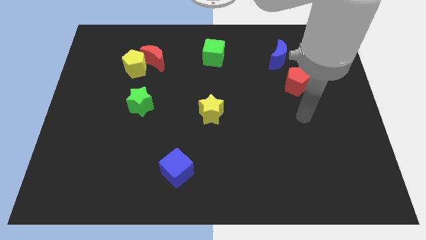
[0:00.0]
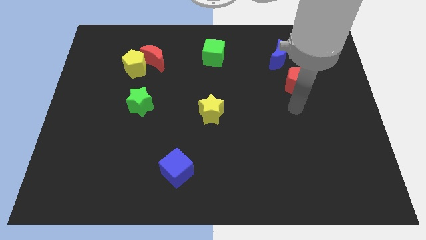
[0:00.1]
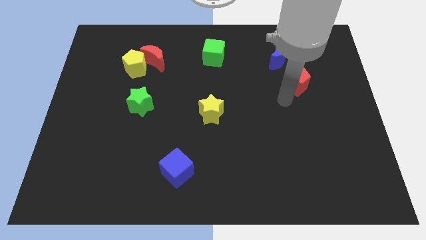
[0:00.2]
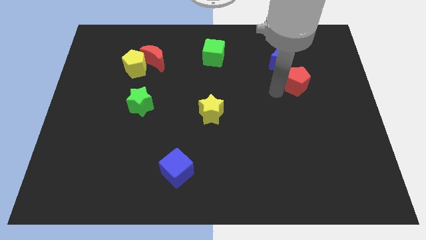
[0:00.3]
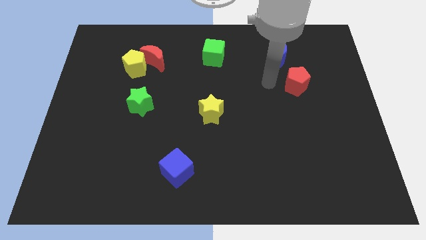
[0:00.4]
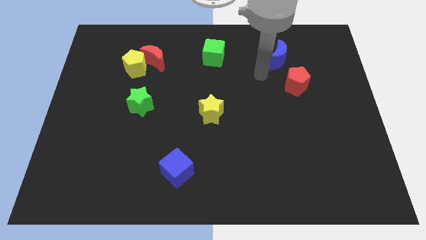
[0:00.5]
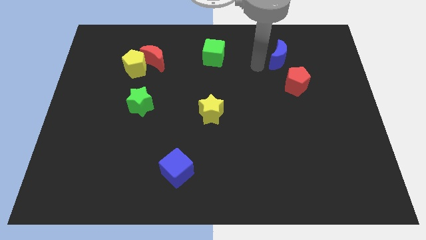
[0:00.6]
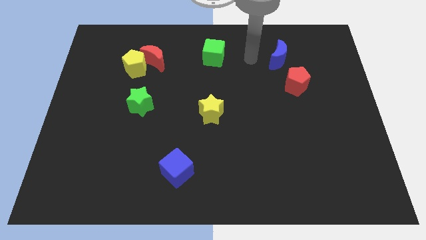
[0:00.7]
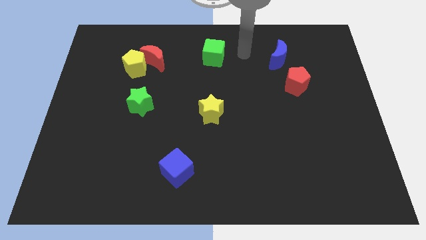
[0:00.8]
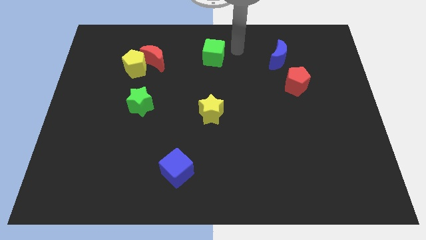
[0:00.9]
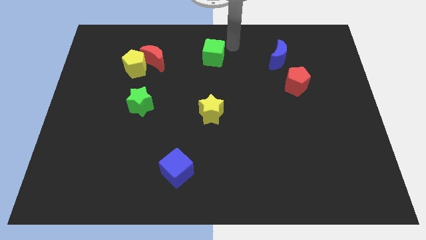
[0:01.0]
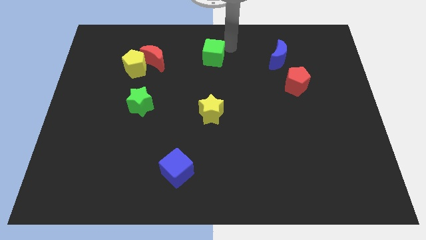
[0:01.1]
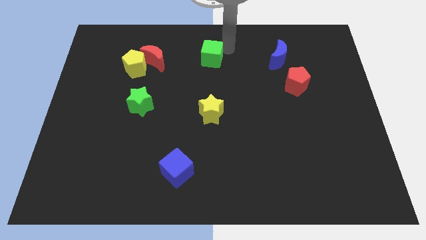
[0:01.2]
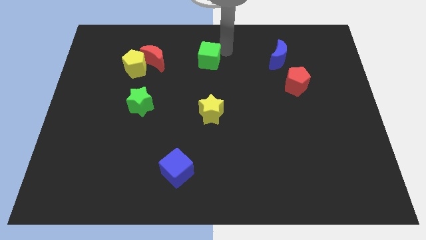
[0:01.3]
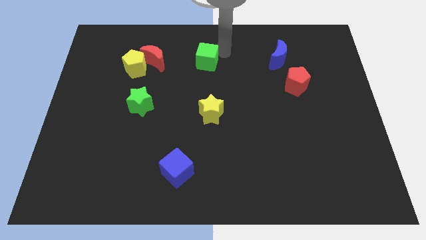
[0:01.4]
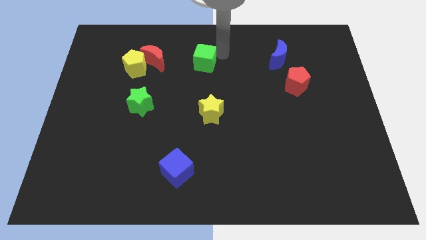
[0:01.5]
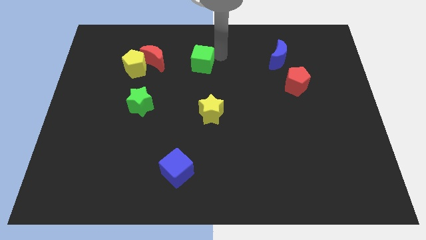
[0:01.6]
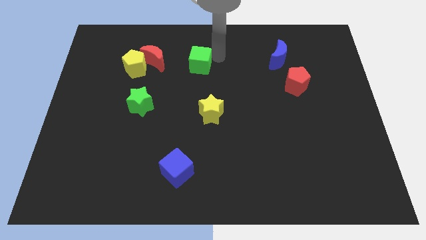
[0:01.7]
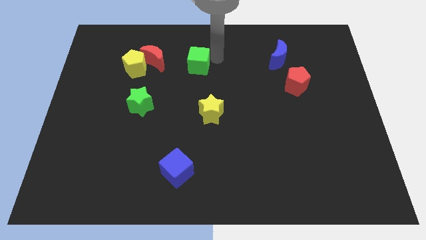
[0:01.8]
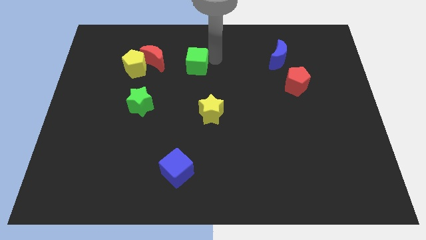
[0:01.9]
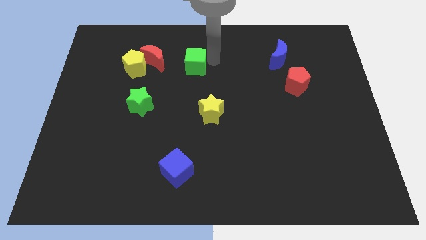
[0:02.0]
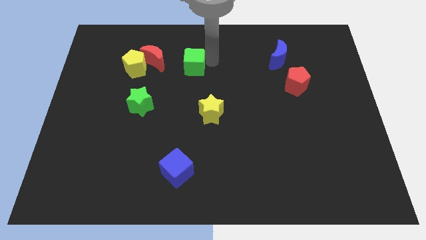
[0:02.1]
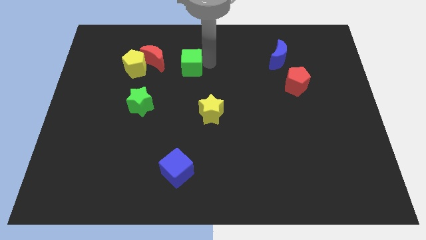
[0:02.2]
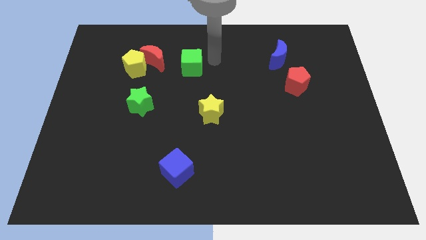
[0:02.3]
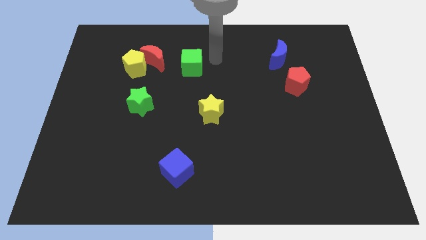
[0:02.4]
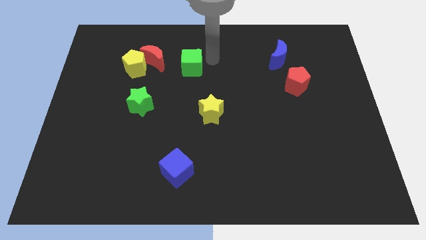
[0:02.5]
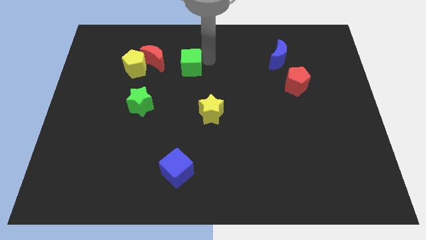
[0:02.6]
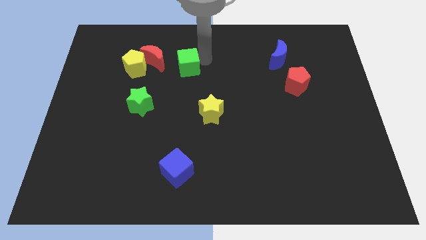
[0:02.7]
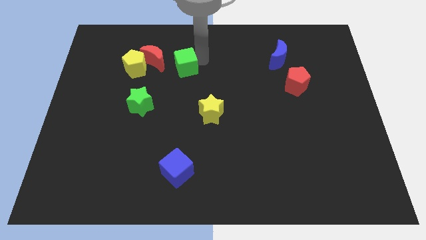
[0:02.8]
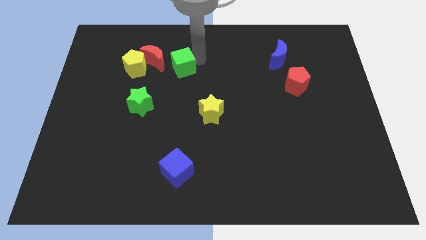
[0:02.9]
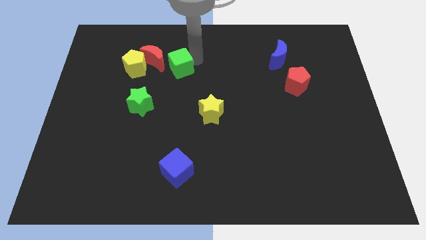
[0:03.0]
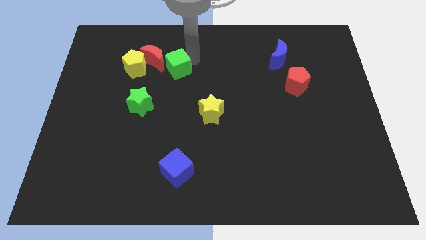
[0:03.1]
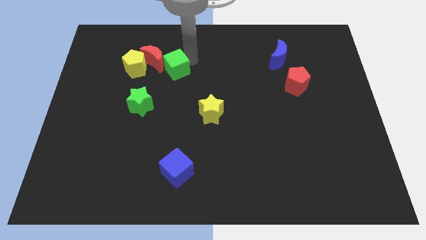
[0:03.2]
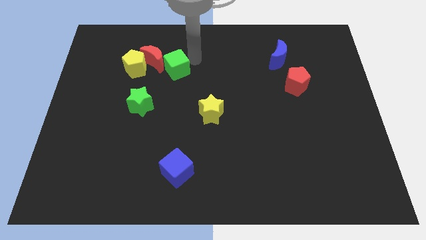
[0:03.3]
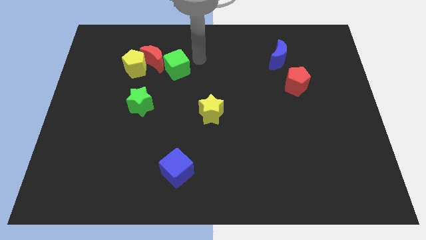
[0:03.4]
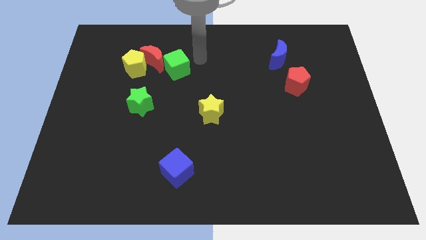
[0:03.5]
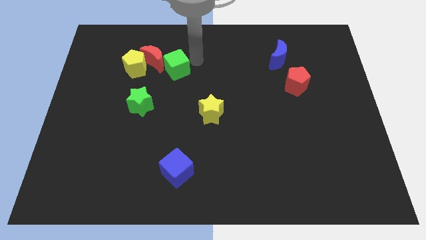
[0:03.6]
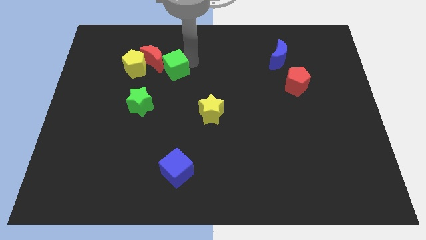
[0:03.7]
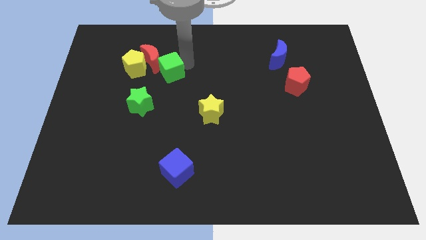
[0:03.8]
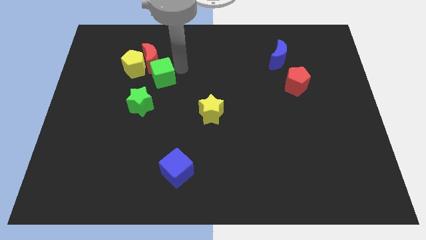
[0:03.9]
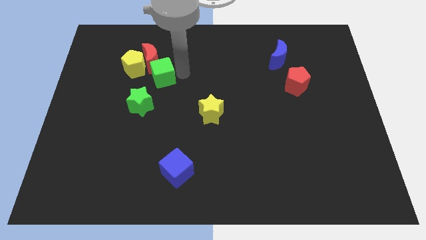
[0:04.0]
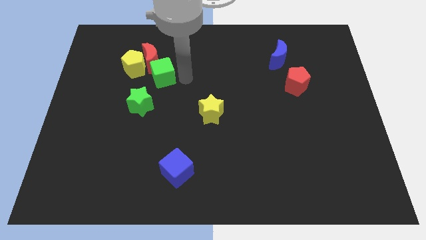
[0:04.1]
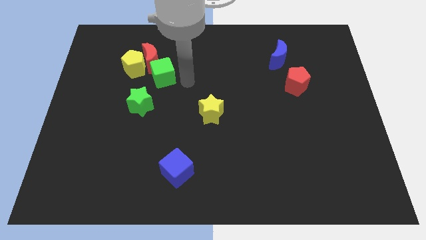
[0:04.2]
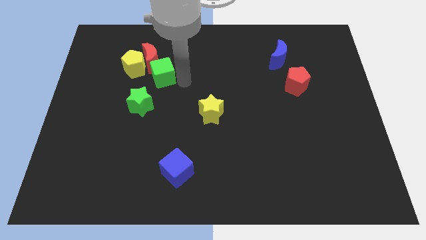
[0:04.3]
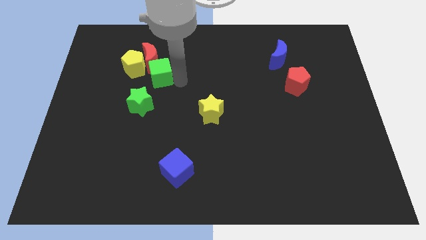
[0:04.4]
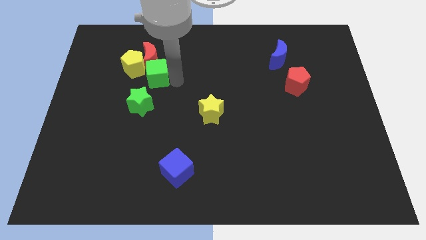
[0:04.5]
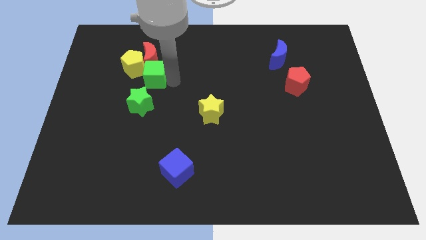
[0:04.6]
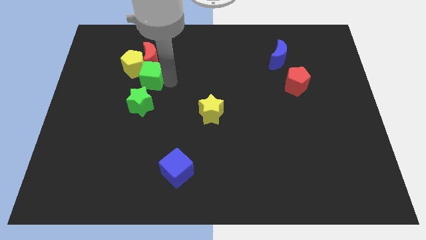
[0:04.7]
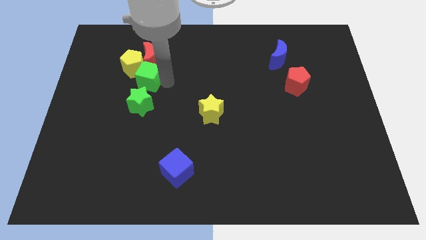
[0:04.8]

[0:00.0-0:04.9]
put the green cube towards the yellow pentagon

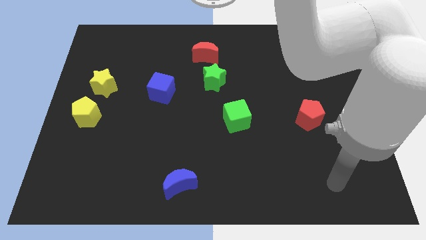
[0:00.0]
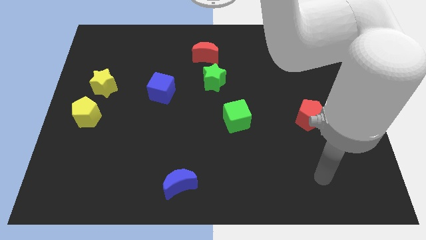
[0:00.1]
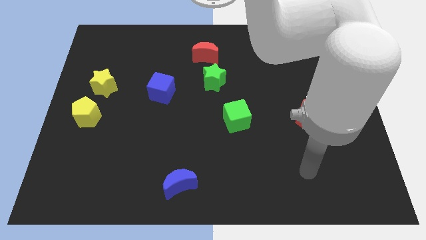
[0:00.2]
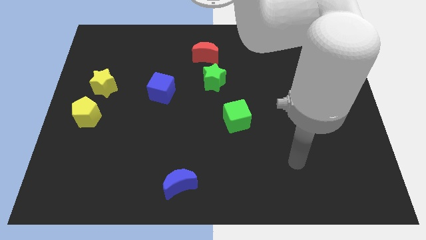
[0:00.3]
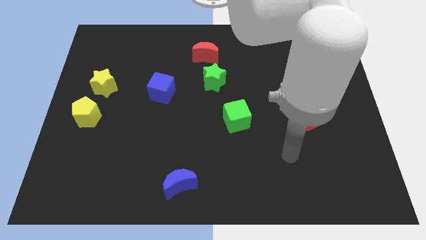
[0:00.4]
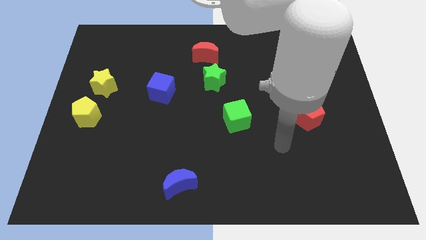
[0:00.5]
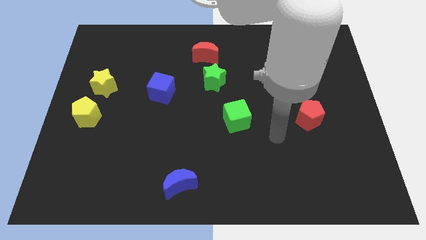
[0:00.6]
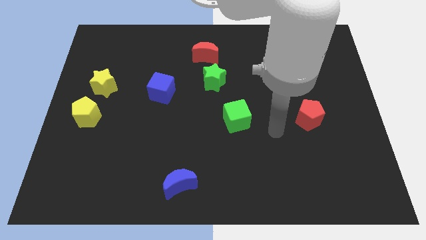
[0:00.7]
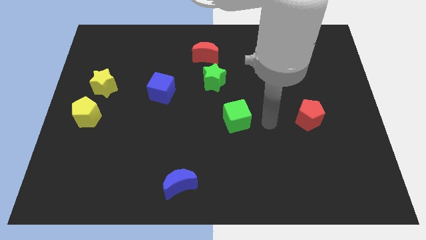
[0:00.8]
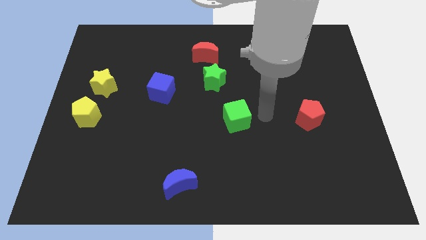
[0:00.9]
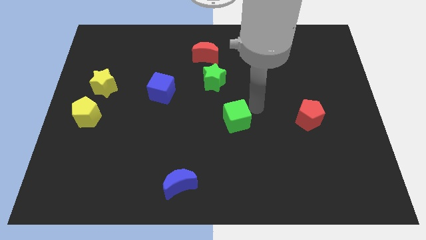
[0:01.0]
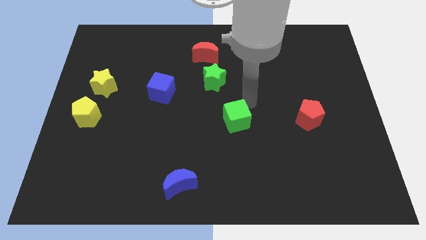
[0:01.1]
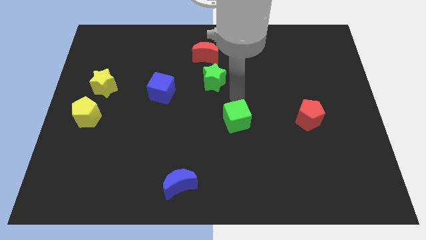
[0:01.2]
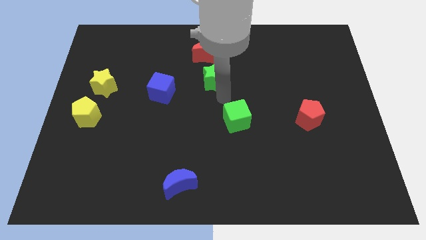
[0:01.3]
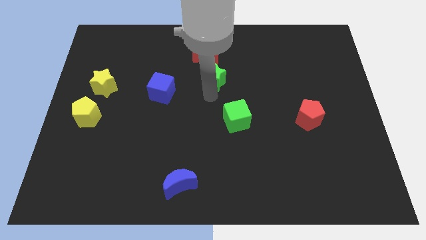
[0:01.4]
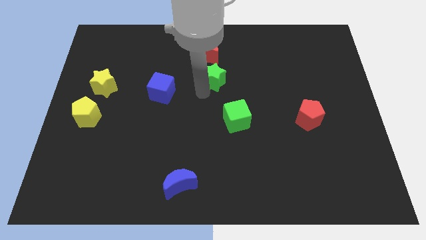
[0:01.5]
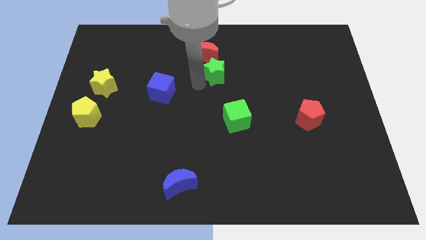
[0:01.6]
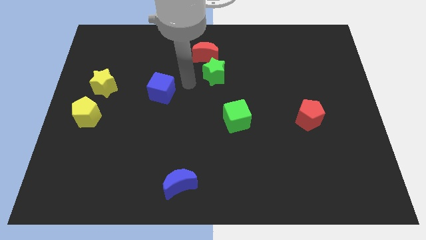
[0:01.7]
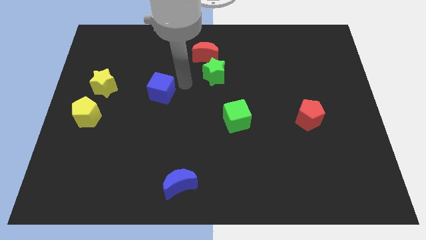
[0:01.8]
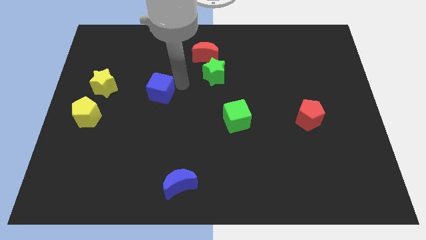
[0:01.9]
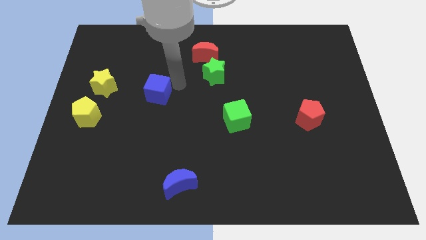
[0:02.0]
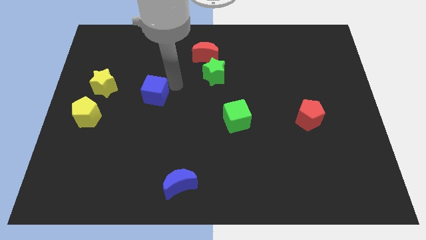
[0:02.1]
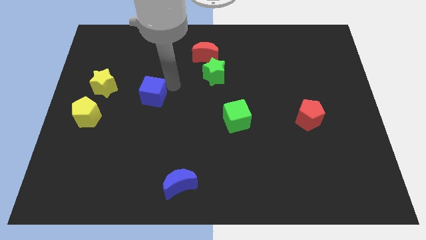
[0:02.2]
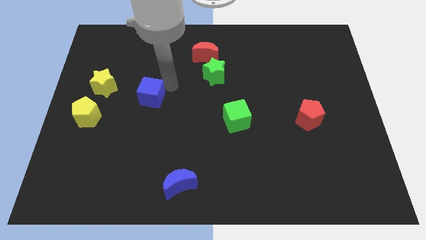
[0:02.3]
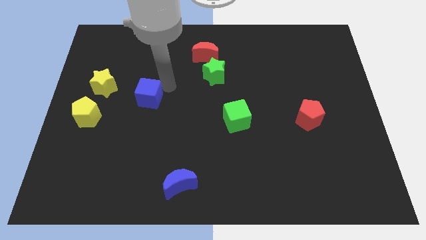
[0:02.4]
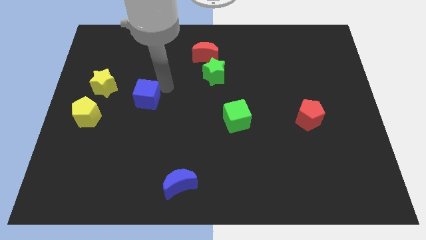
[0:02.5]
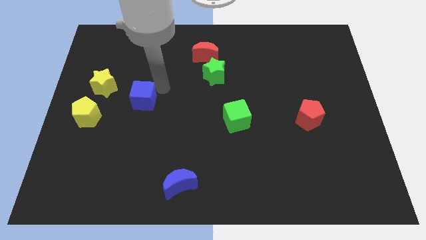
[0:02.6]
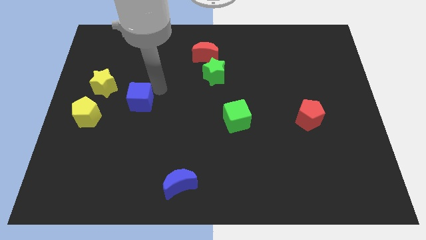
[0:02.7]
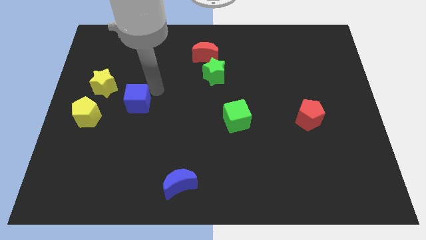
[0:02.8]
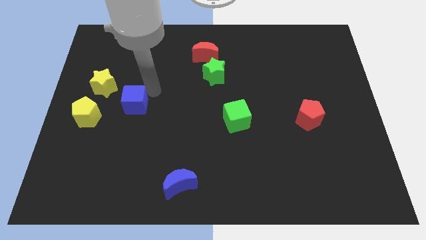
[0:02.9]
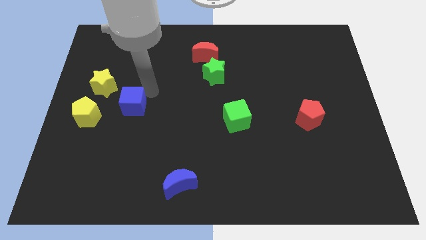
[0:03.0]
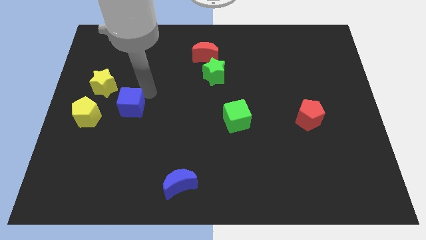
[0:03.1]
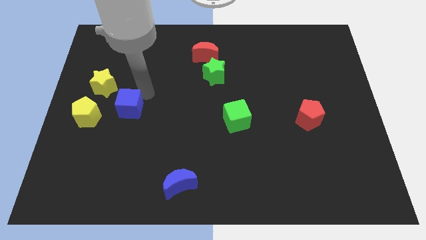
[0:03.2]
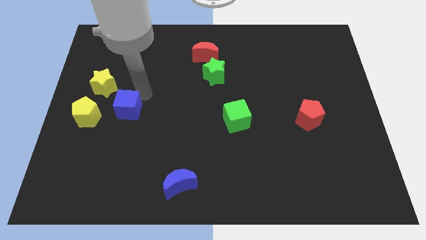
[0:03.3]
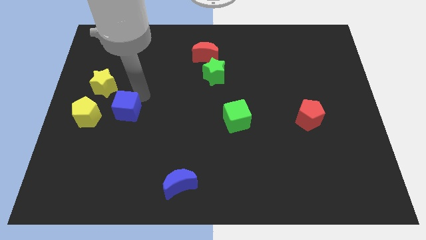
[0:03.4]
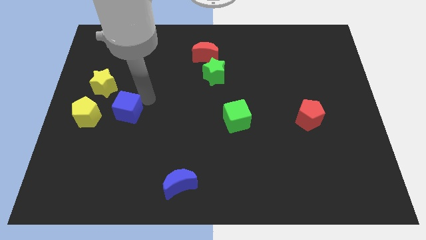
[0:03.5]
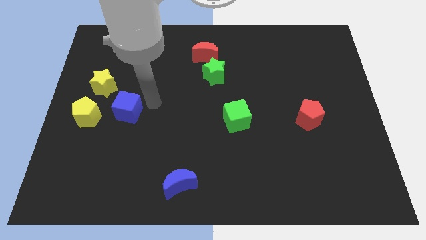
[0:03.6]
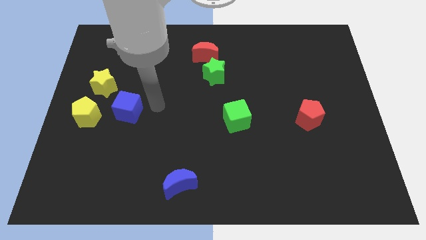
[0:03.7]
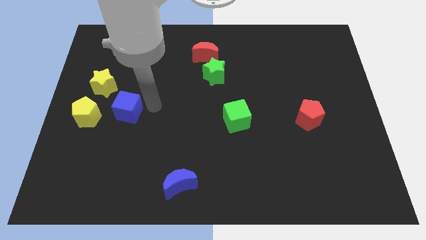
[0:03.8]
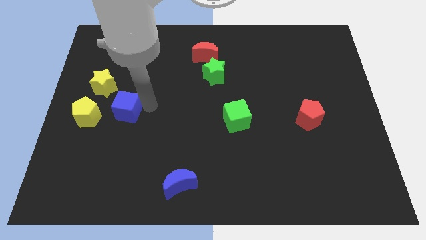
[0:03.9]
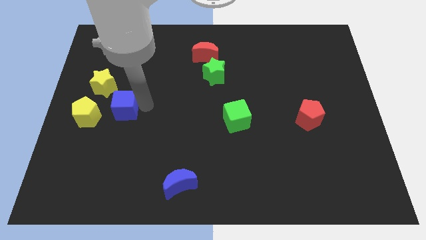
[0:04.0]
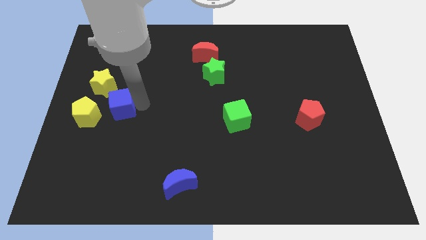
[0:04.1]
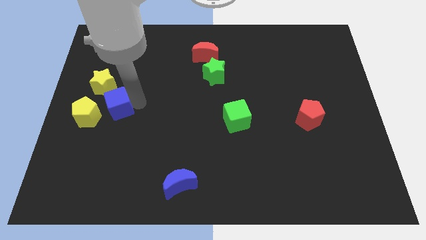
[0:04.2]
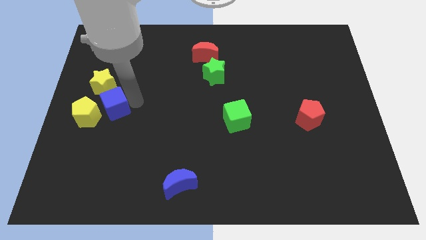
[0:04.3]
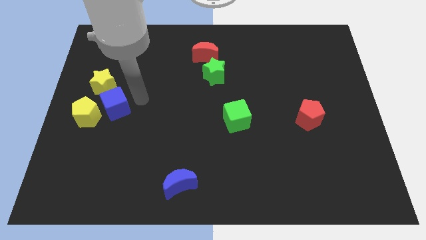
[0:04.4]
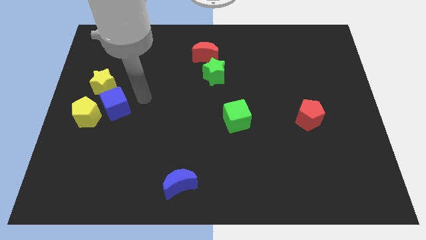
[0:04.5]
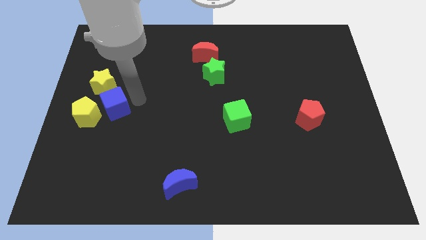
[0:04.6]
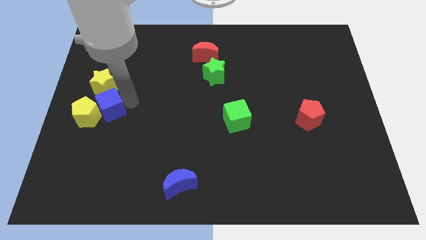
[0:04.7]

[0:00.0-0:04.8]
slide the blue cube next to the yellow pentagon
